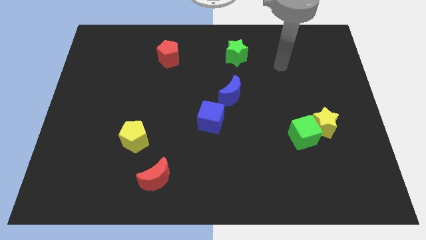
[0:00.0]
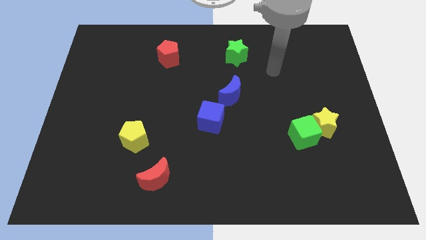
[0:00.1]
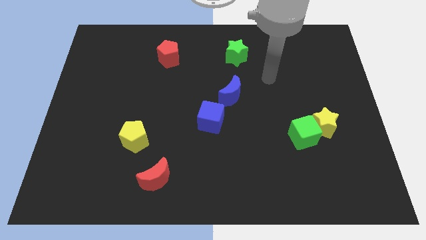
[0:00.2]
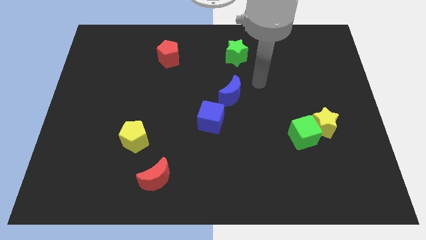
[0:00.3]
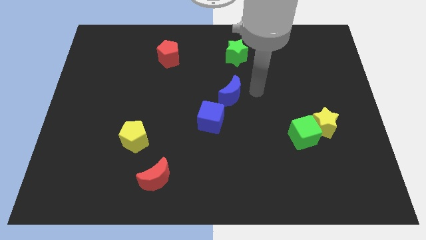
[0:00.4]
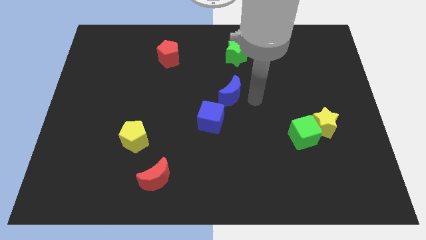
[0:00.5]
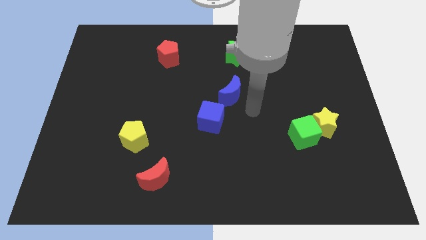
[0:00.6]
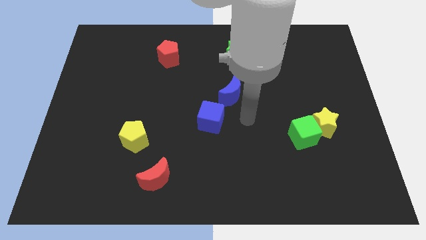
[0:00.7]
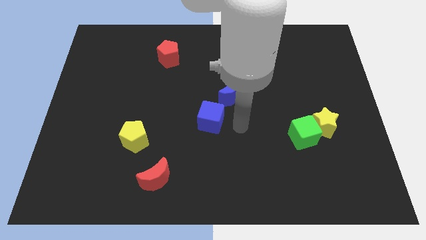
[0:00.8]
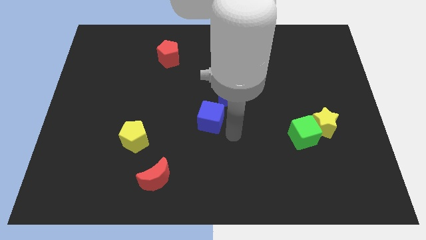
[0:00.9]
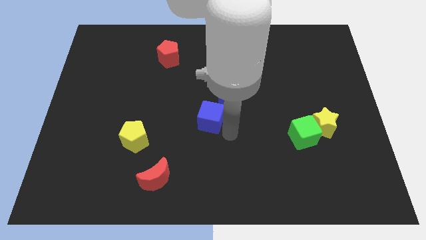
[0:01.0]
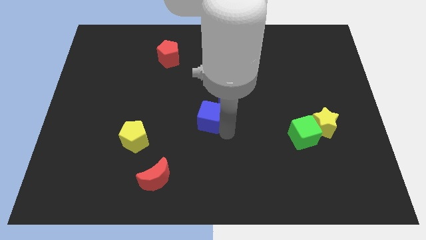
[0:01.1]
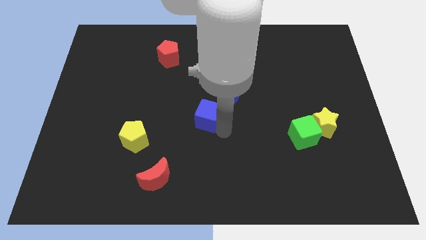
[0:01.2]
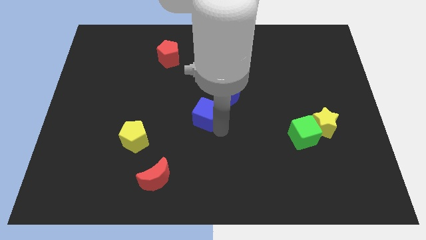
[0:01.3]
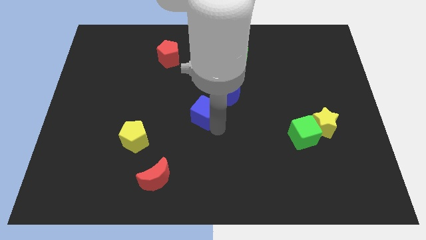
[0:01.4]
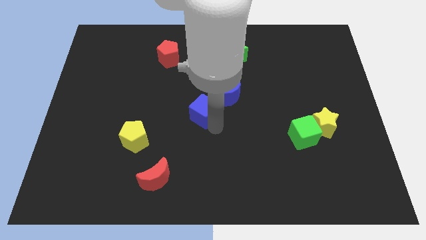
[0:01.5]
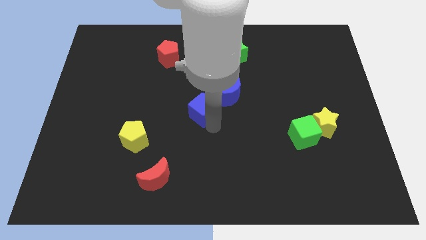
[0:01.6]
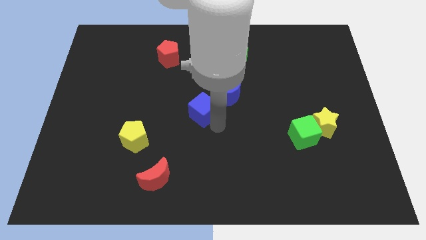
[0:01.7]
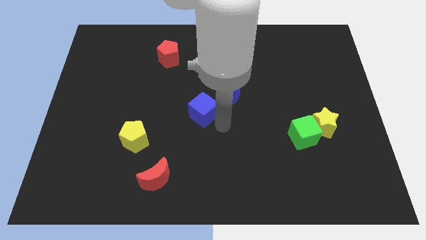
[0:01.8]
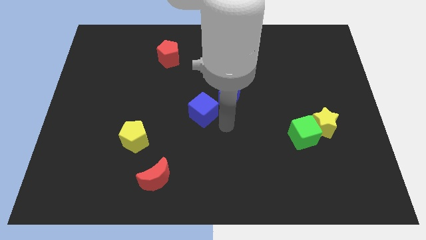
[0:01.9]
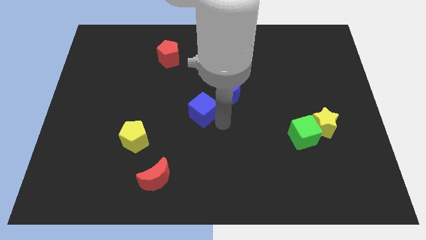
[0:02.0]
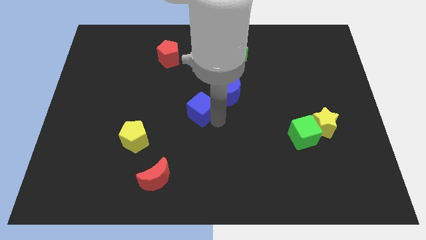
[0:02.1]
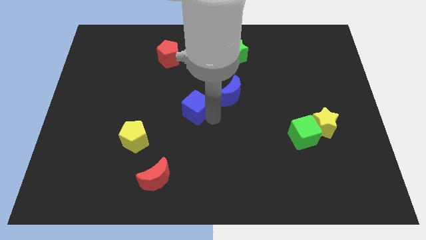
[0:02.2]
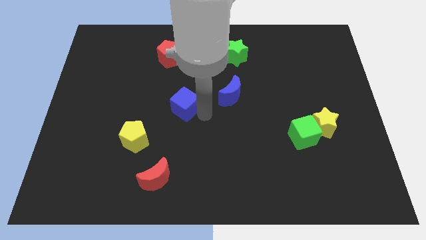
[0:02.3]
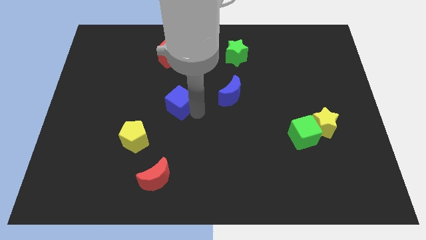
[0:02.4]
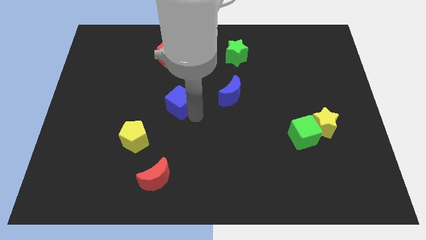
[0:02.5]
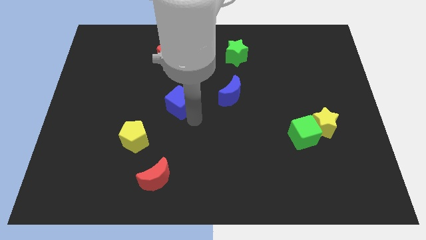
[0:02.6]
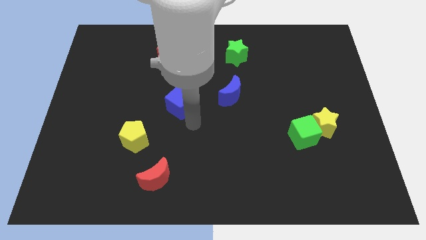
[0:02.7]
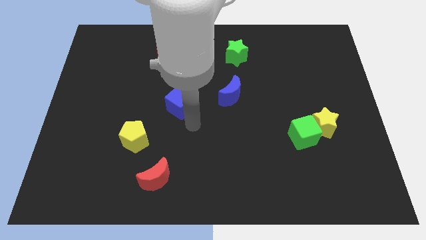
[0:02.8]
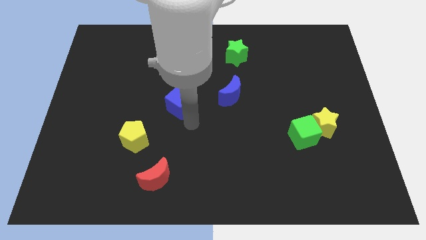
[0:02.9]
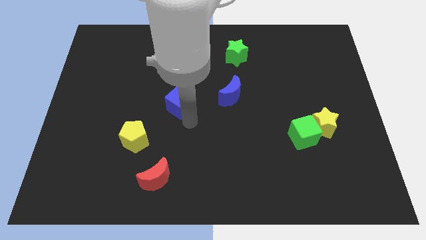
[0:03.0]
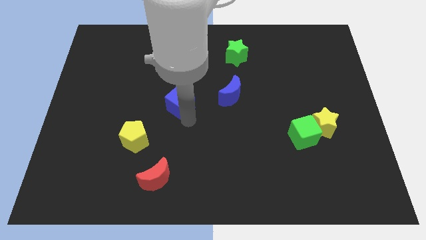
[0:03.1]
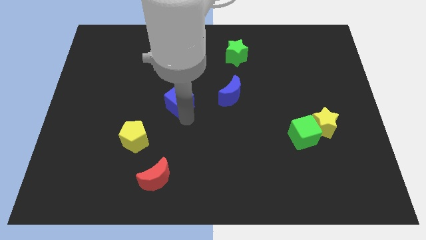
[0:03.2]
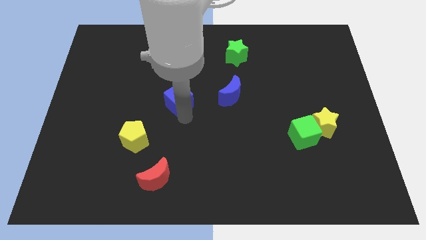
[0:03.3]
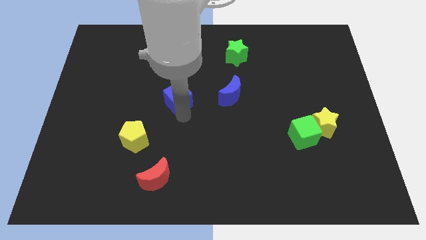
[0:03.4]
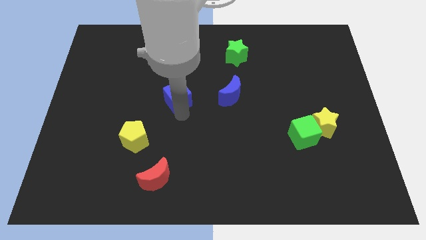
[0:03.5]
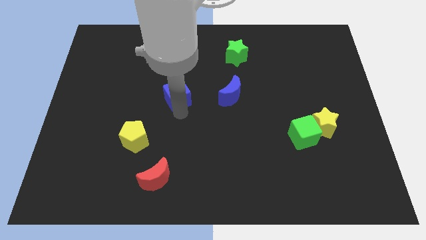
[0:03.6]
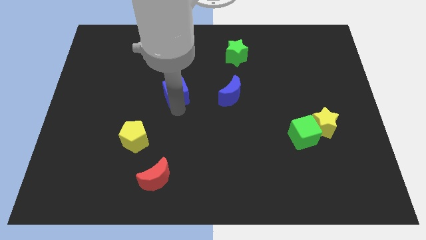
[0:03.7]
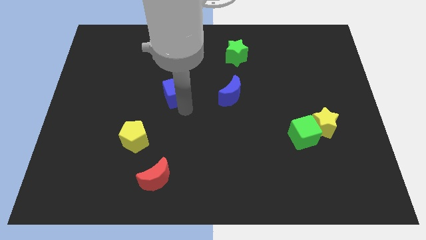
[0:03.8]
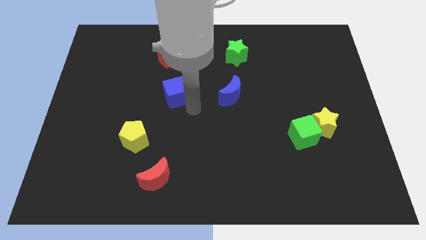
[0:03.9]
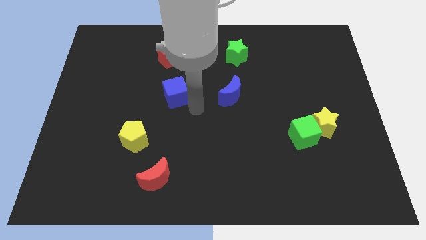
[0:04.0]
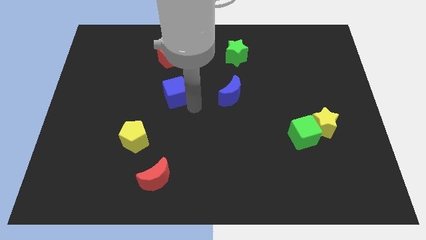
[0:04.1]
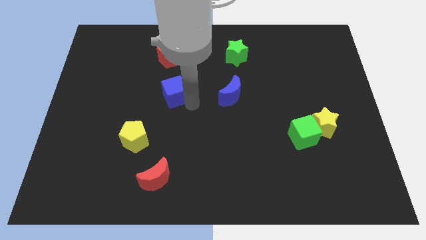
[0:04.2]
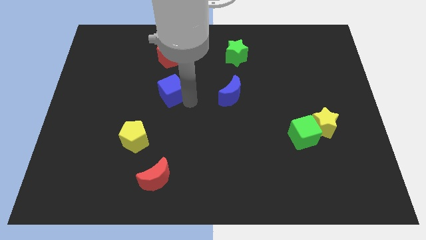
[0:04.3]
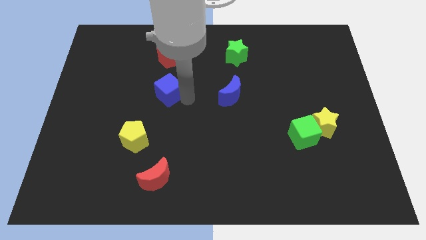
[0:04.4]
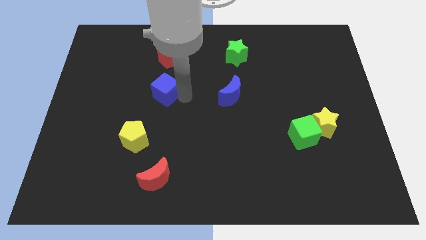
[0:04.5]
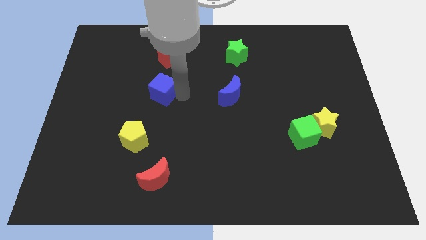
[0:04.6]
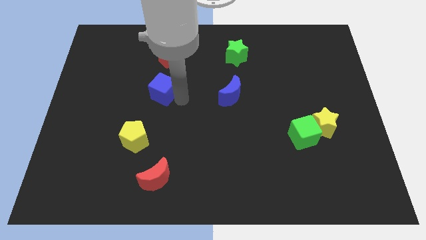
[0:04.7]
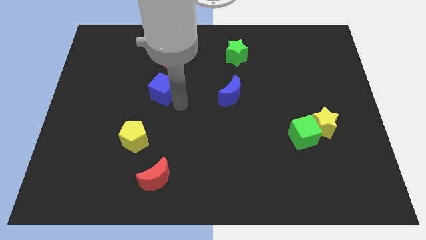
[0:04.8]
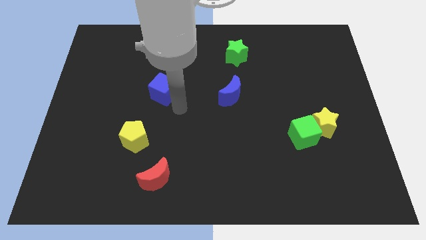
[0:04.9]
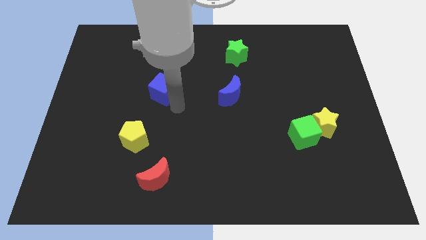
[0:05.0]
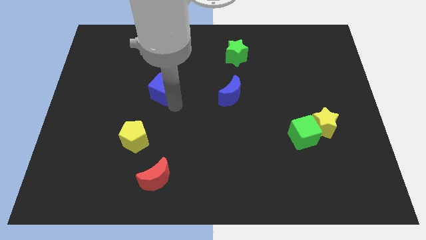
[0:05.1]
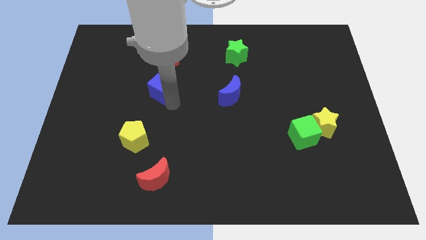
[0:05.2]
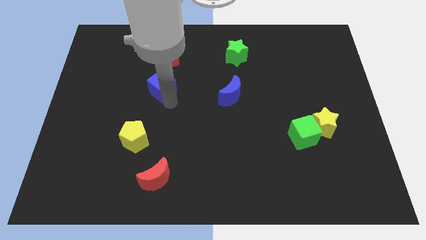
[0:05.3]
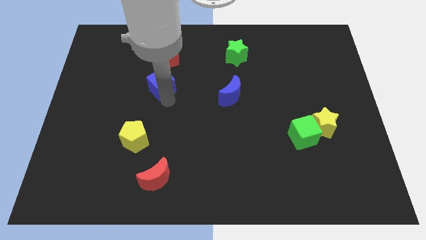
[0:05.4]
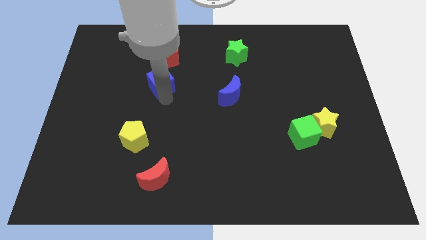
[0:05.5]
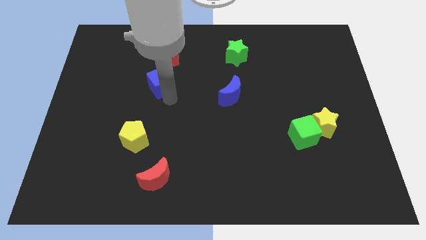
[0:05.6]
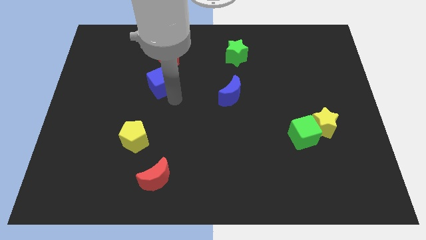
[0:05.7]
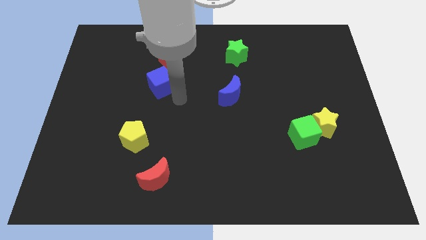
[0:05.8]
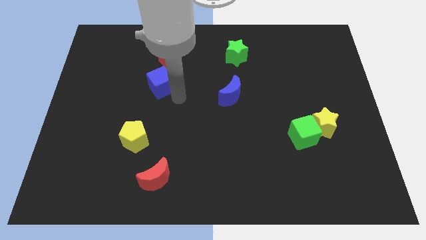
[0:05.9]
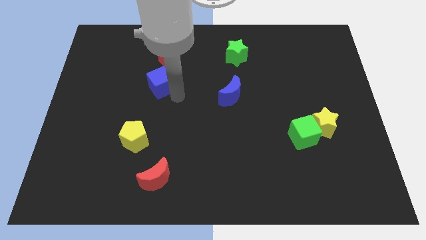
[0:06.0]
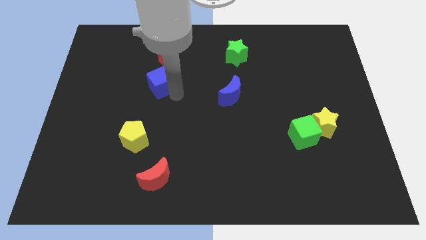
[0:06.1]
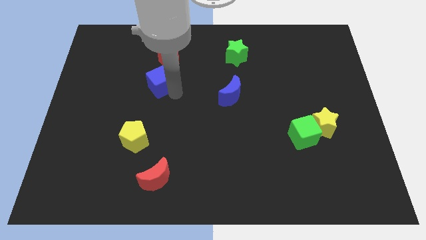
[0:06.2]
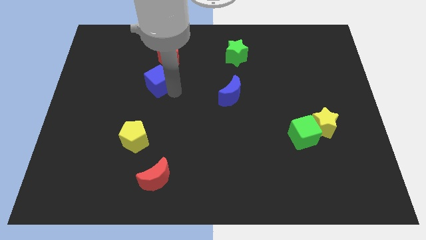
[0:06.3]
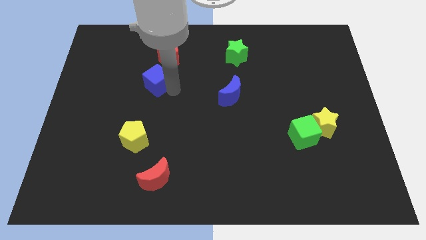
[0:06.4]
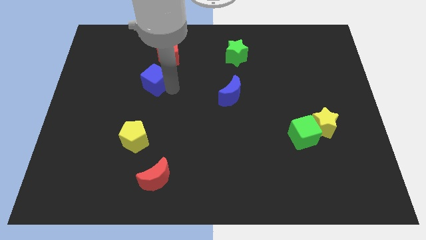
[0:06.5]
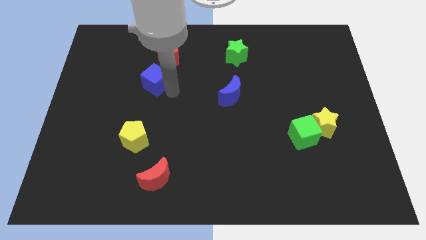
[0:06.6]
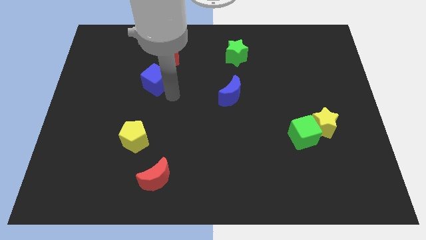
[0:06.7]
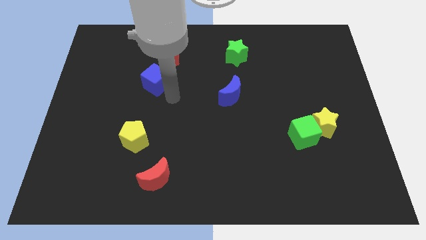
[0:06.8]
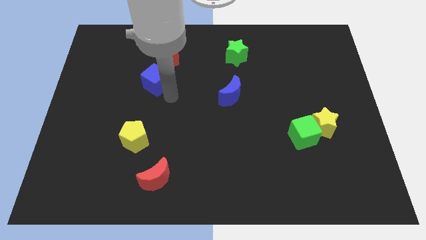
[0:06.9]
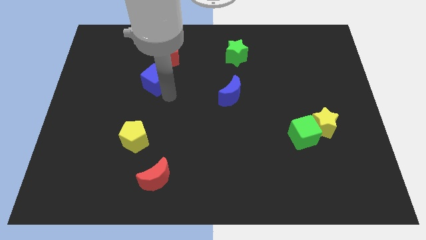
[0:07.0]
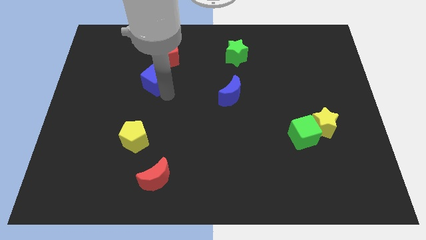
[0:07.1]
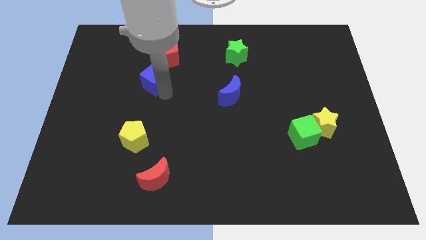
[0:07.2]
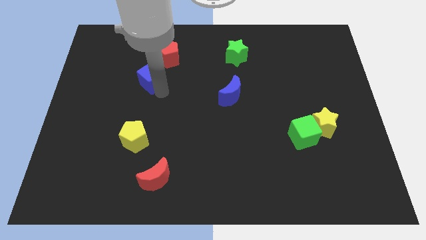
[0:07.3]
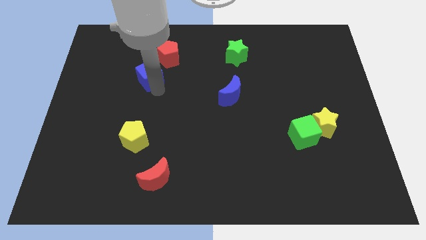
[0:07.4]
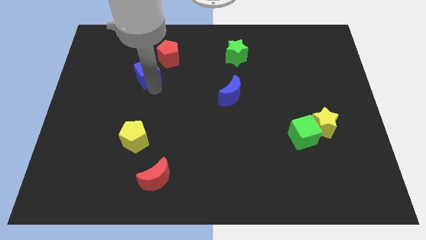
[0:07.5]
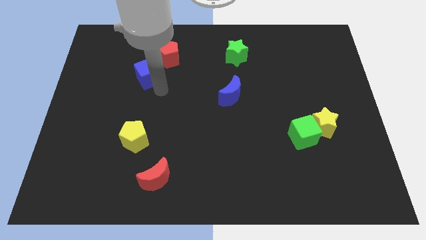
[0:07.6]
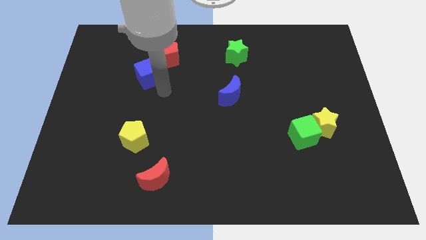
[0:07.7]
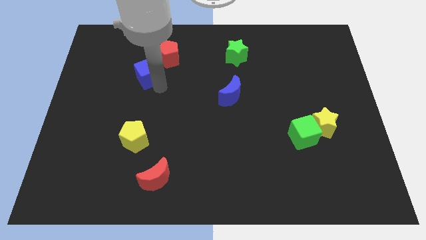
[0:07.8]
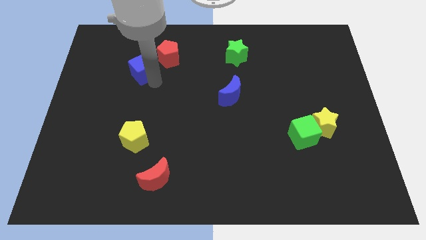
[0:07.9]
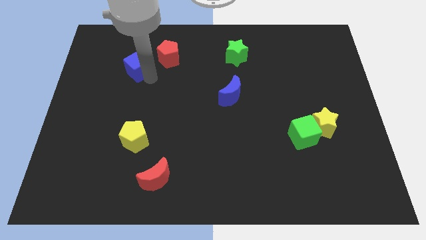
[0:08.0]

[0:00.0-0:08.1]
move the blue cube left of the red pentagon
